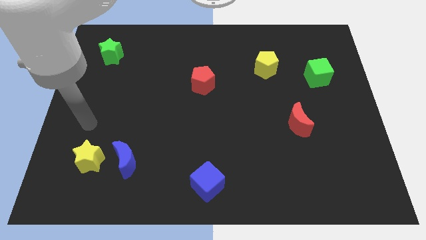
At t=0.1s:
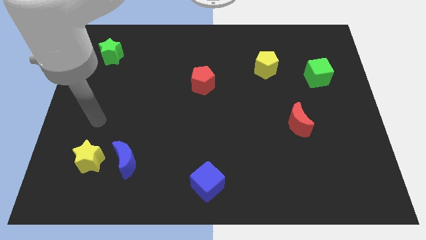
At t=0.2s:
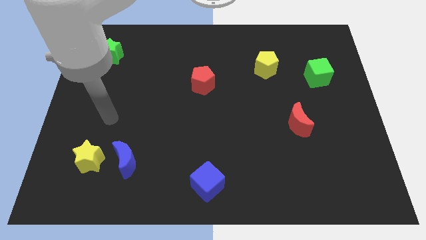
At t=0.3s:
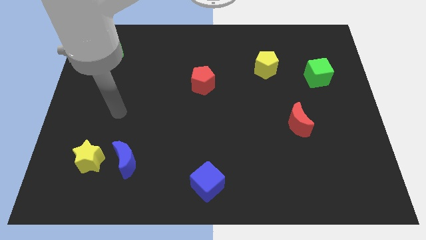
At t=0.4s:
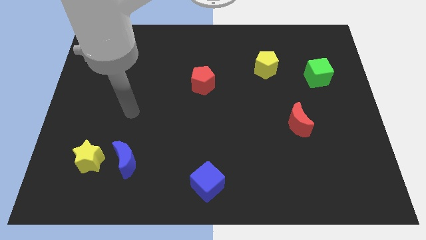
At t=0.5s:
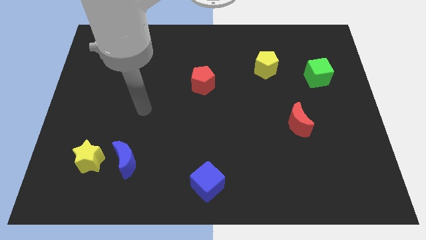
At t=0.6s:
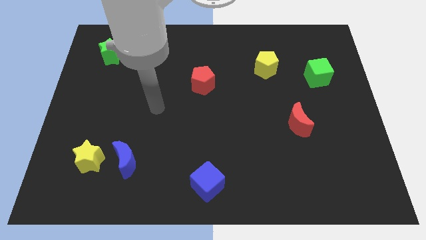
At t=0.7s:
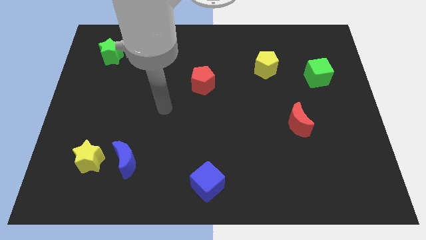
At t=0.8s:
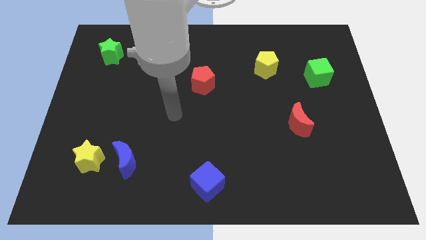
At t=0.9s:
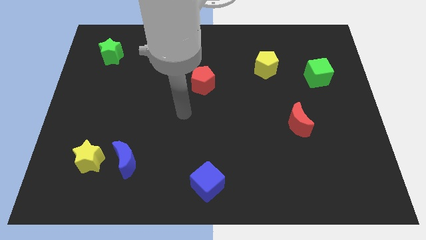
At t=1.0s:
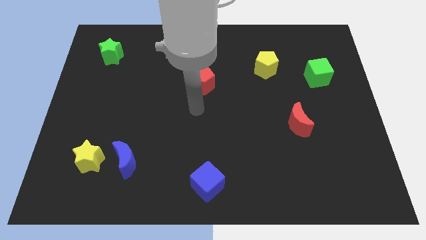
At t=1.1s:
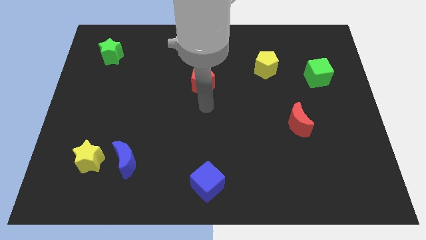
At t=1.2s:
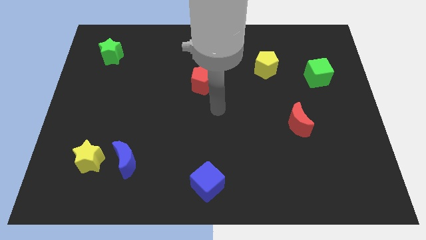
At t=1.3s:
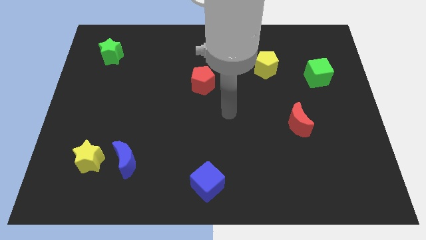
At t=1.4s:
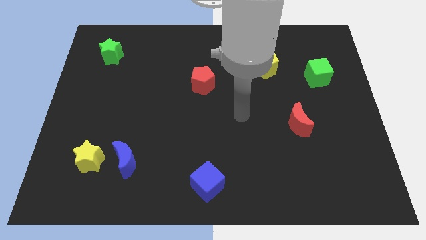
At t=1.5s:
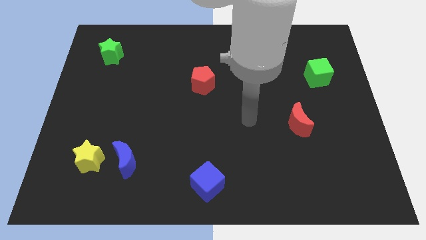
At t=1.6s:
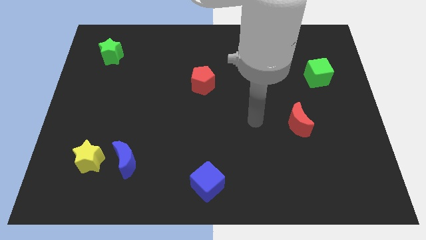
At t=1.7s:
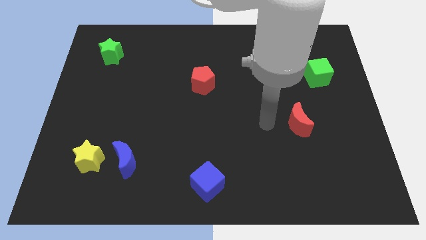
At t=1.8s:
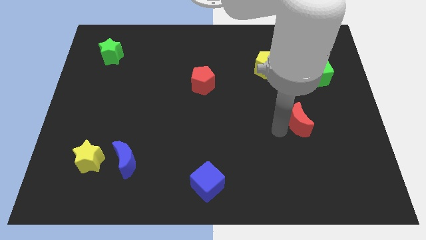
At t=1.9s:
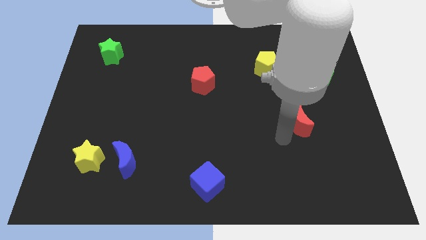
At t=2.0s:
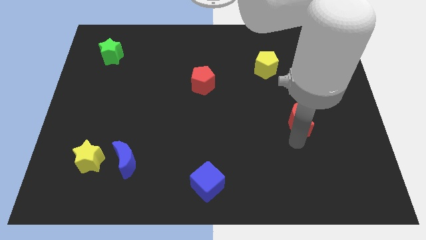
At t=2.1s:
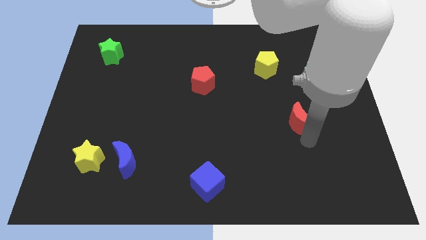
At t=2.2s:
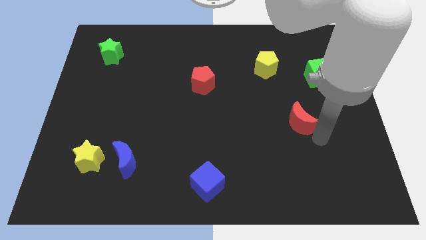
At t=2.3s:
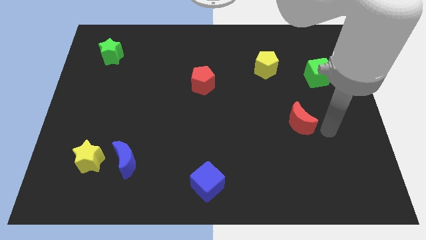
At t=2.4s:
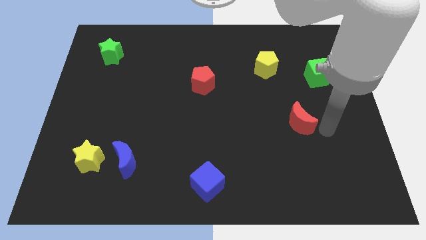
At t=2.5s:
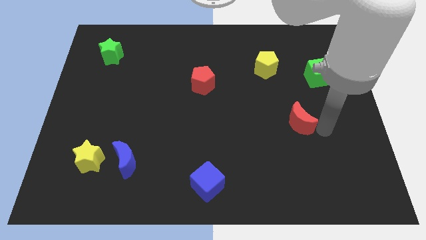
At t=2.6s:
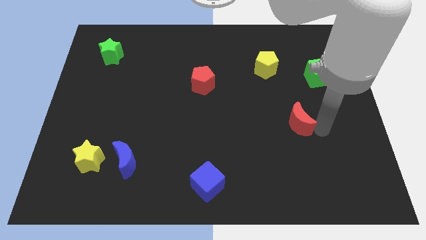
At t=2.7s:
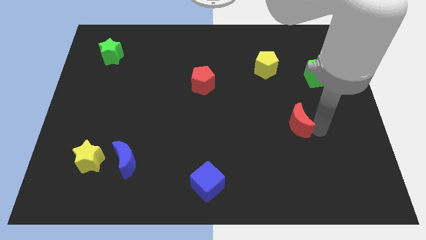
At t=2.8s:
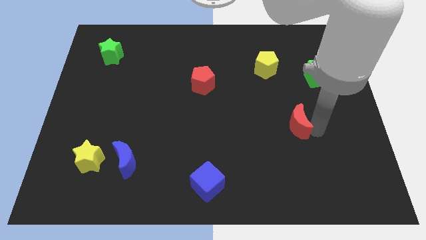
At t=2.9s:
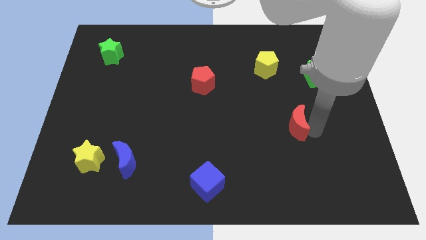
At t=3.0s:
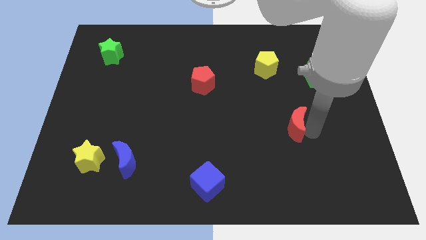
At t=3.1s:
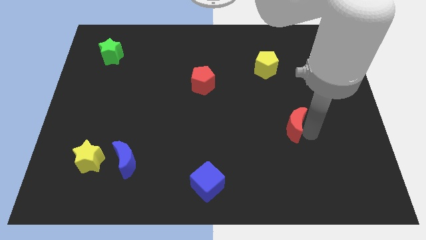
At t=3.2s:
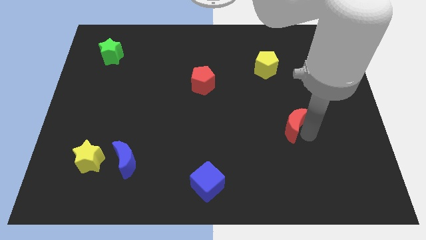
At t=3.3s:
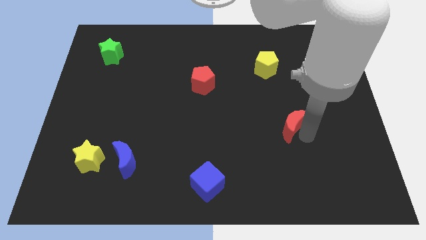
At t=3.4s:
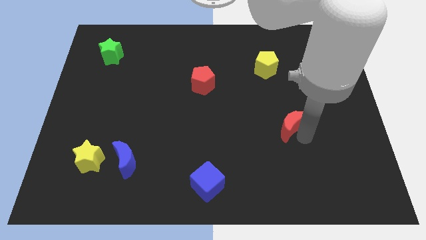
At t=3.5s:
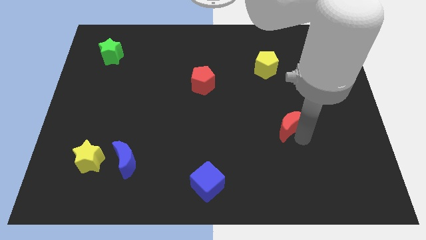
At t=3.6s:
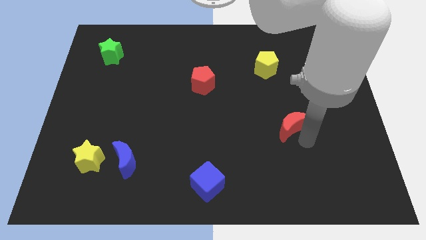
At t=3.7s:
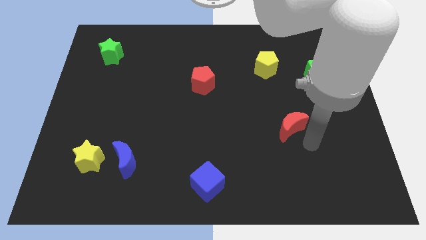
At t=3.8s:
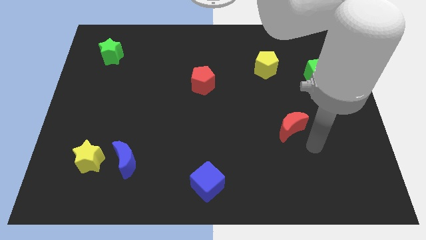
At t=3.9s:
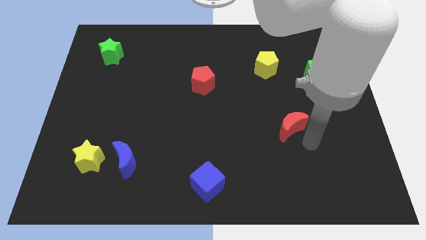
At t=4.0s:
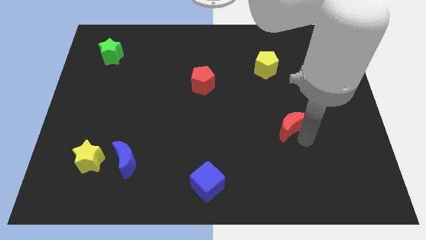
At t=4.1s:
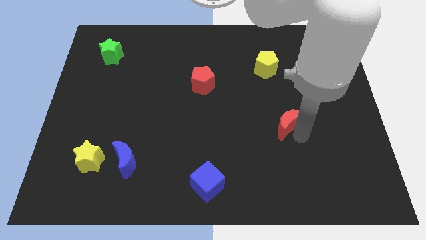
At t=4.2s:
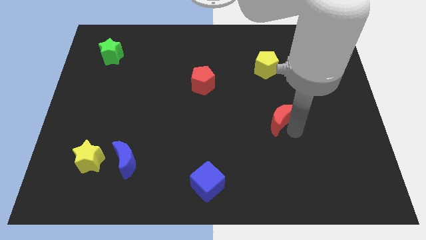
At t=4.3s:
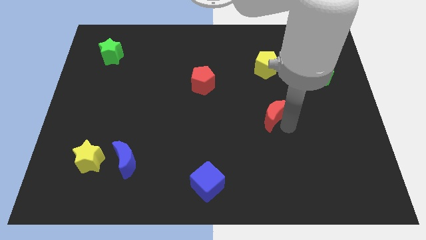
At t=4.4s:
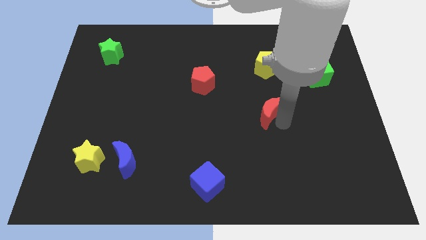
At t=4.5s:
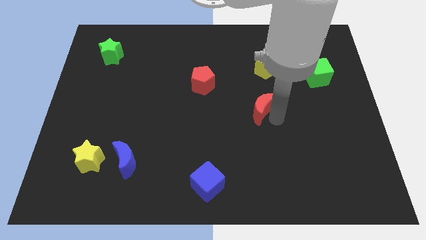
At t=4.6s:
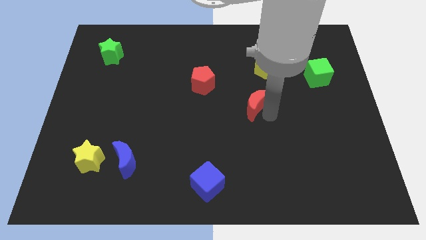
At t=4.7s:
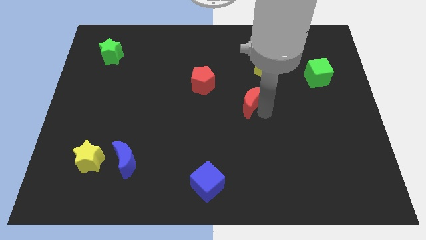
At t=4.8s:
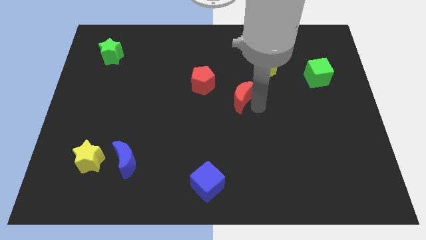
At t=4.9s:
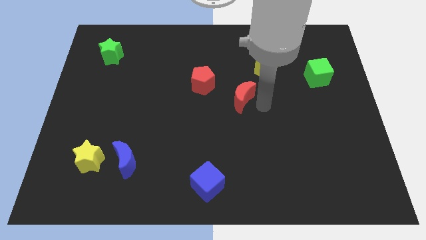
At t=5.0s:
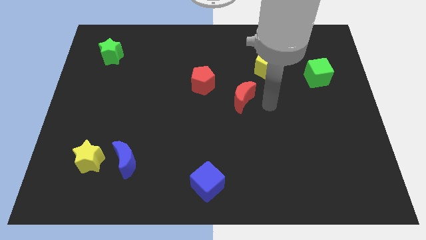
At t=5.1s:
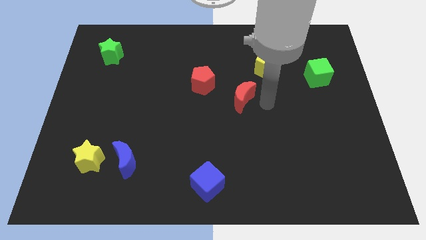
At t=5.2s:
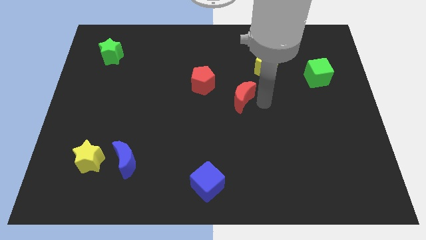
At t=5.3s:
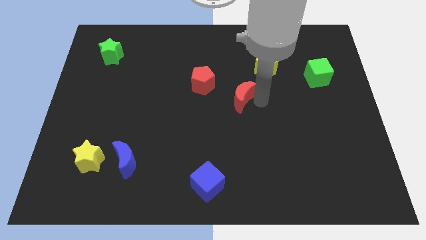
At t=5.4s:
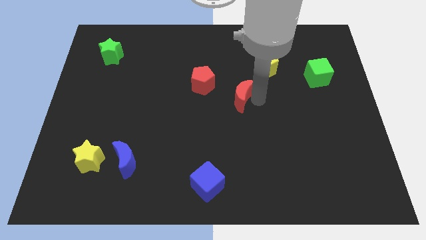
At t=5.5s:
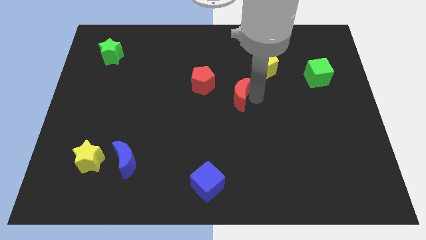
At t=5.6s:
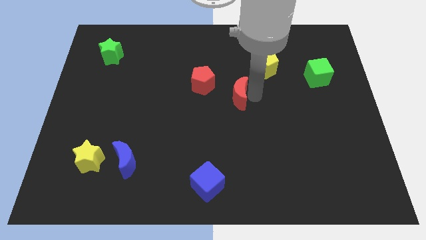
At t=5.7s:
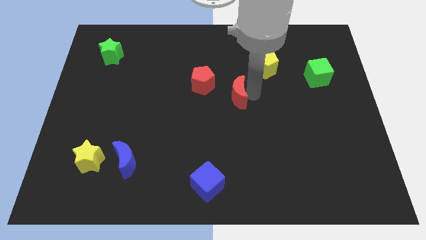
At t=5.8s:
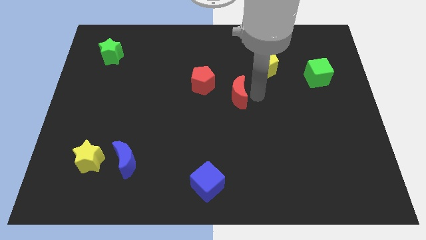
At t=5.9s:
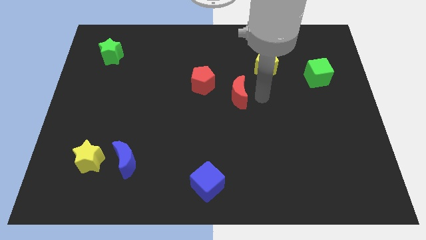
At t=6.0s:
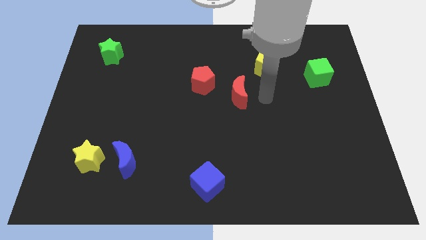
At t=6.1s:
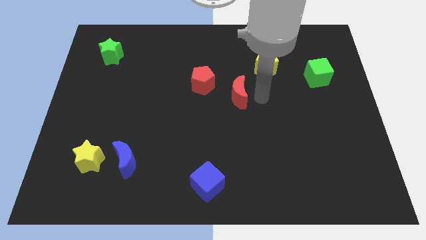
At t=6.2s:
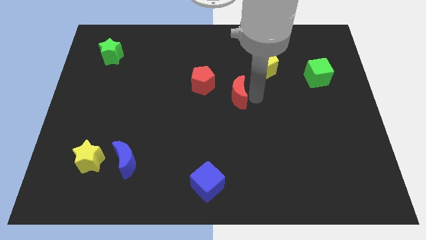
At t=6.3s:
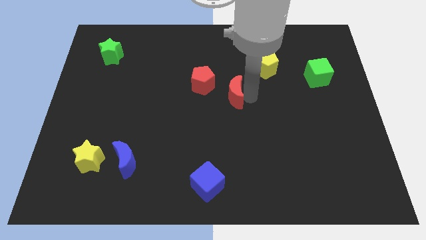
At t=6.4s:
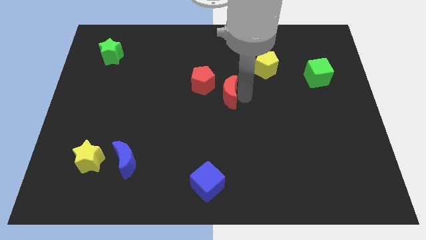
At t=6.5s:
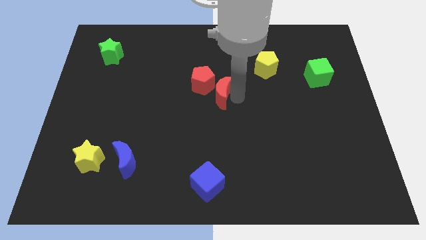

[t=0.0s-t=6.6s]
move the red moon to the red pentagon
